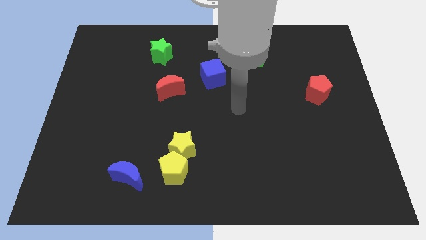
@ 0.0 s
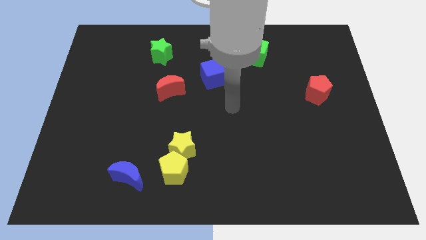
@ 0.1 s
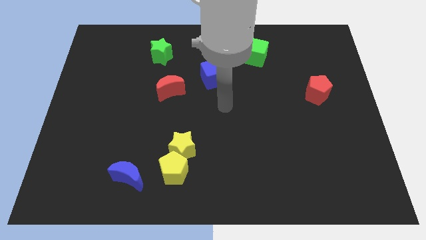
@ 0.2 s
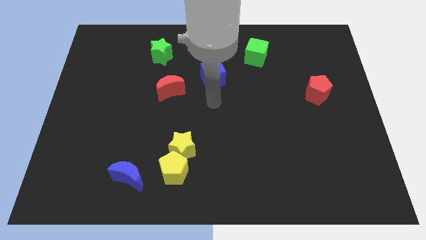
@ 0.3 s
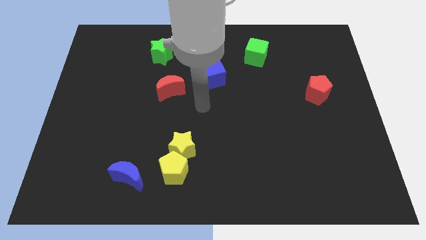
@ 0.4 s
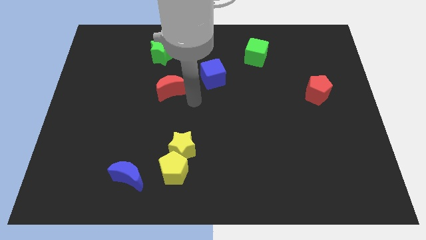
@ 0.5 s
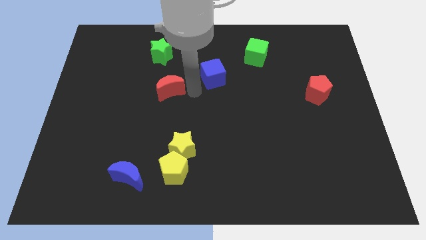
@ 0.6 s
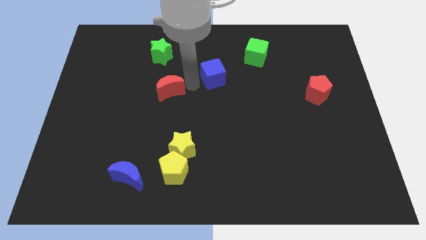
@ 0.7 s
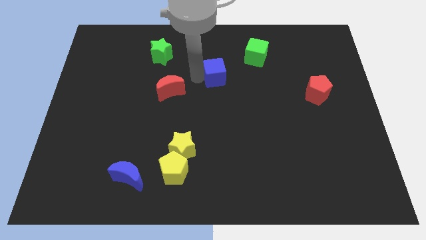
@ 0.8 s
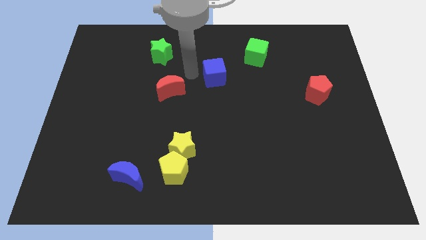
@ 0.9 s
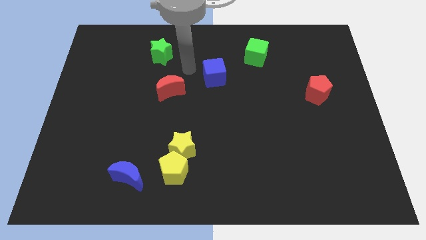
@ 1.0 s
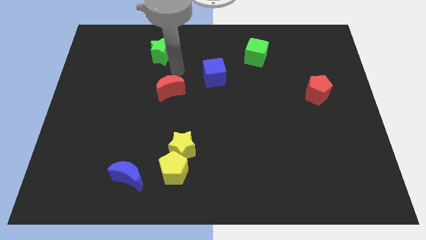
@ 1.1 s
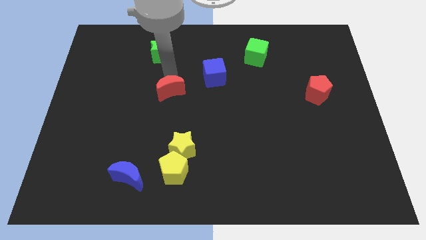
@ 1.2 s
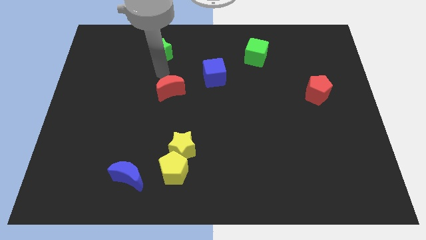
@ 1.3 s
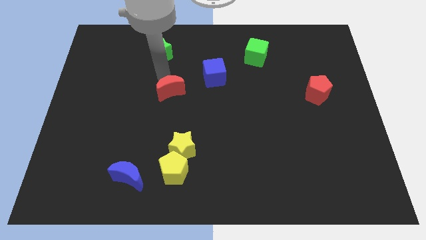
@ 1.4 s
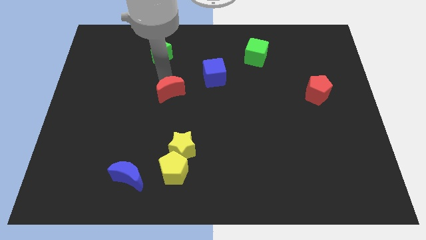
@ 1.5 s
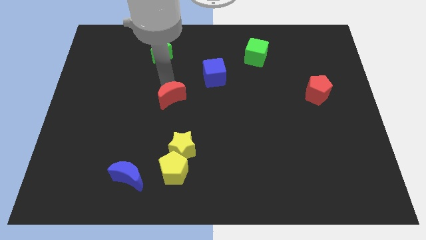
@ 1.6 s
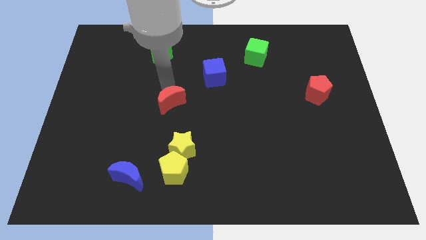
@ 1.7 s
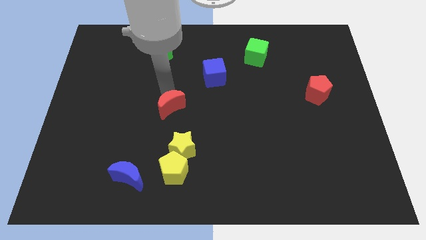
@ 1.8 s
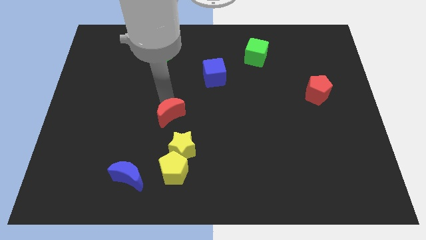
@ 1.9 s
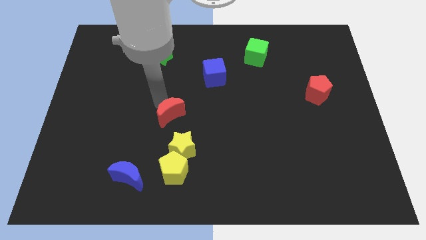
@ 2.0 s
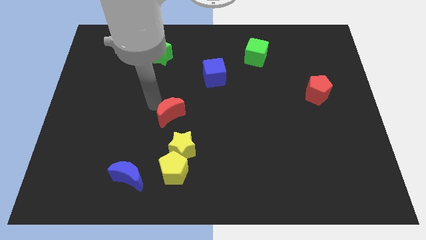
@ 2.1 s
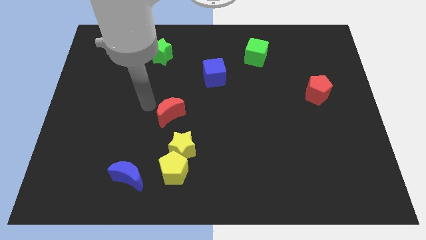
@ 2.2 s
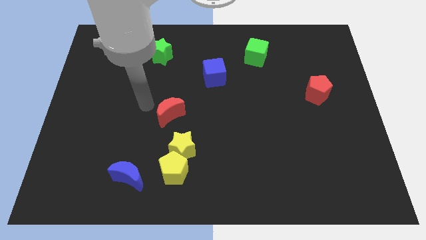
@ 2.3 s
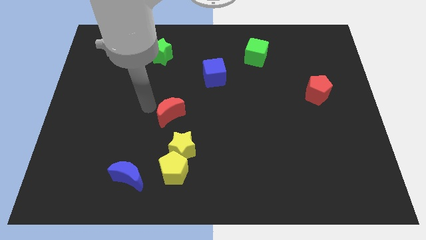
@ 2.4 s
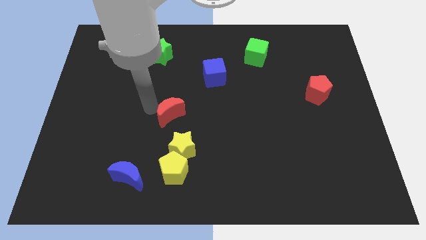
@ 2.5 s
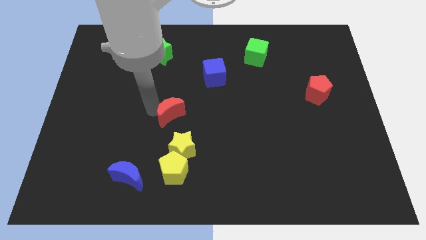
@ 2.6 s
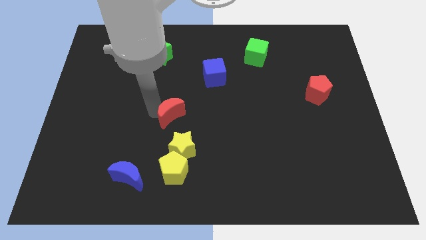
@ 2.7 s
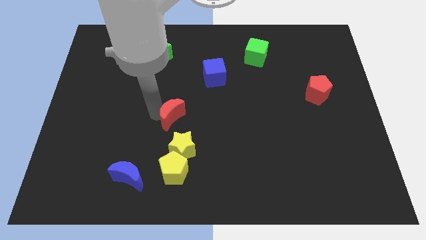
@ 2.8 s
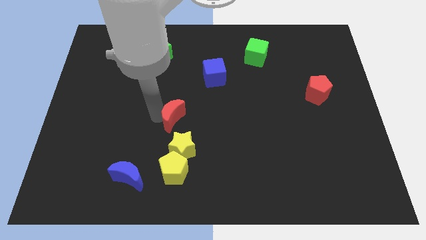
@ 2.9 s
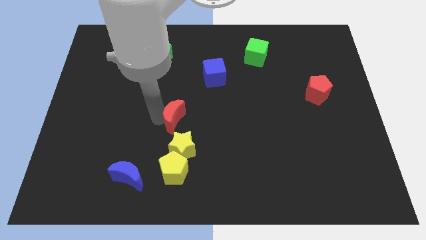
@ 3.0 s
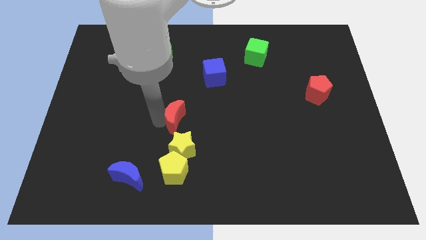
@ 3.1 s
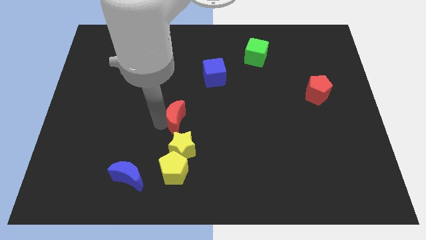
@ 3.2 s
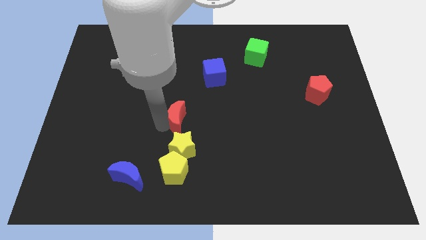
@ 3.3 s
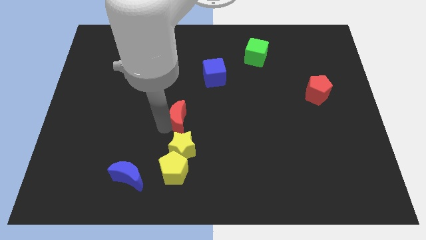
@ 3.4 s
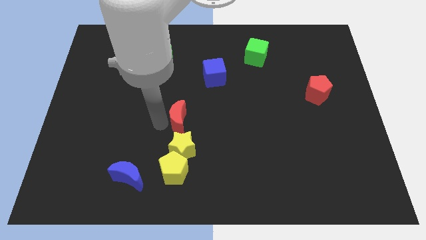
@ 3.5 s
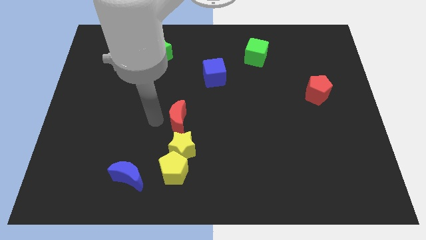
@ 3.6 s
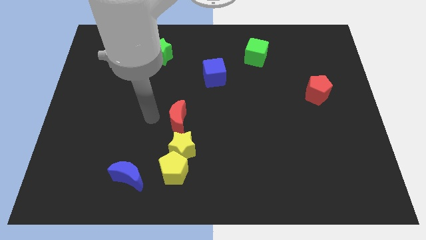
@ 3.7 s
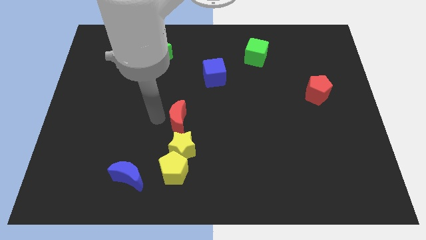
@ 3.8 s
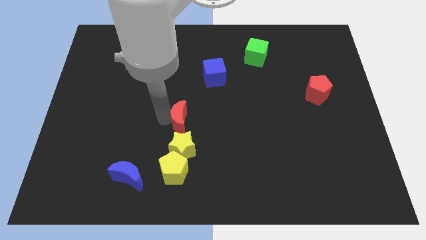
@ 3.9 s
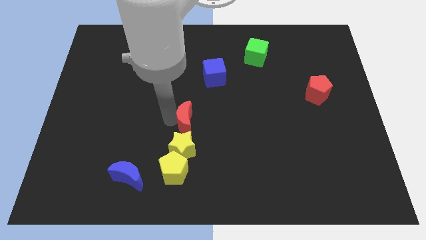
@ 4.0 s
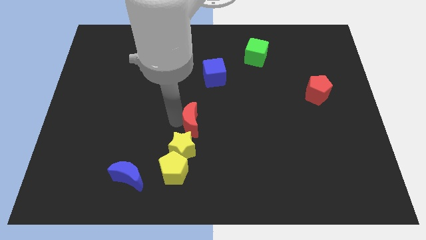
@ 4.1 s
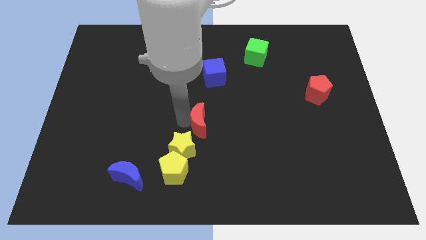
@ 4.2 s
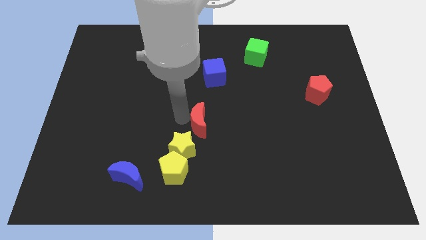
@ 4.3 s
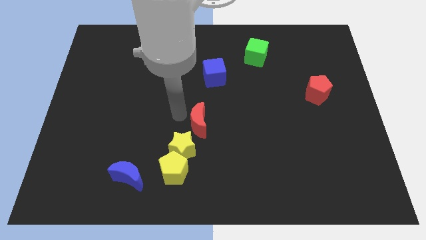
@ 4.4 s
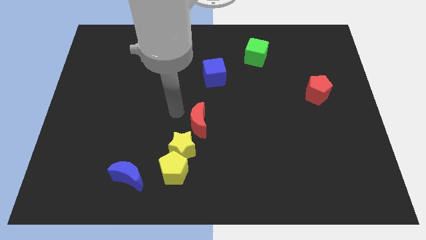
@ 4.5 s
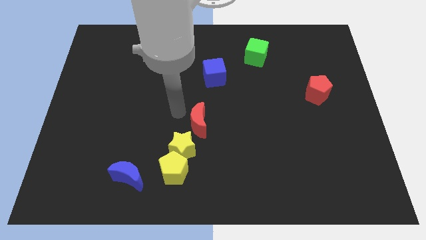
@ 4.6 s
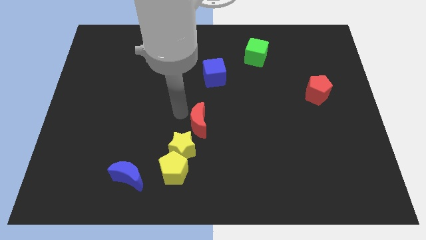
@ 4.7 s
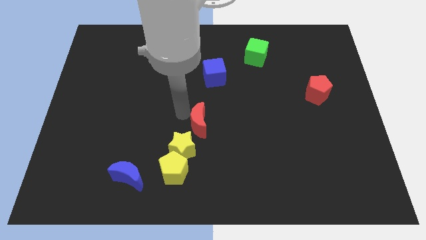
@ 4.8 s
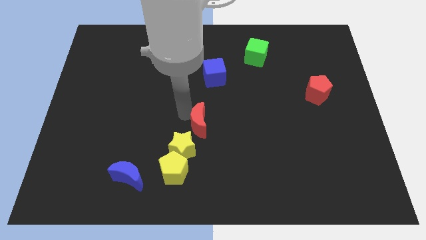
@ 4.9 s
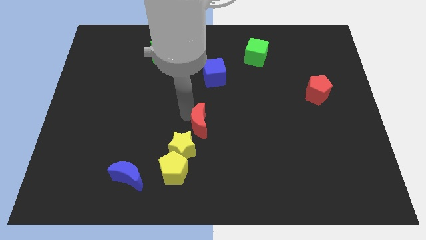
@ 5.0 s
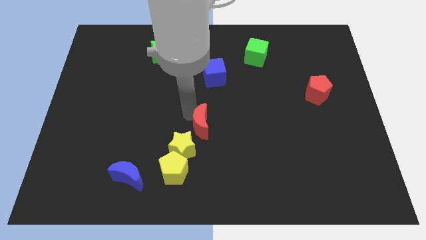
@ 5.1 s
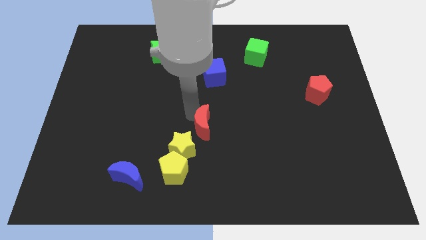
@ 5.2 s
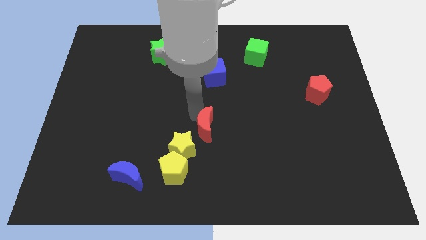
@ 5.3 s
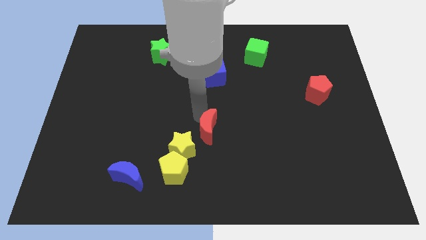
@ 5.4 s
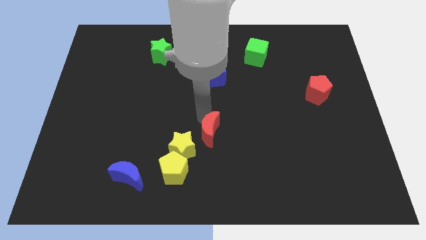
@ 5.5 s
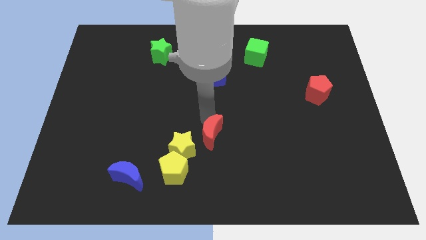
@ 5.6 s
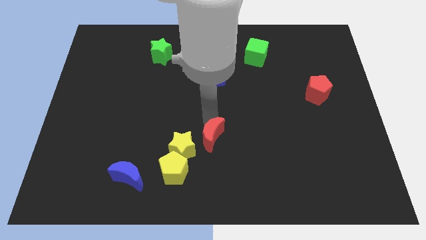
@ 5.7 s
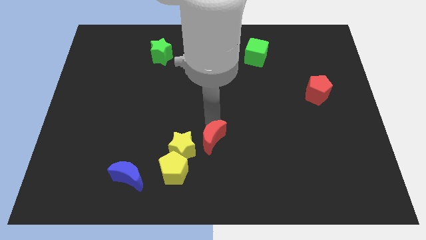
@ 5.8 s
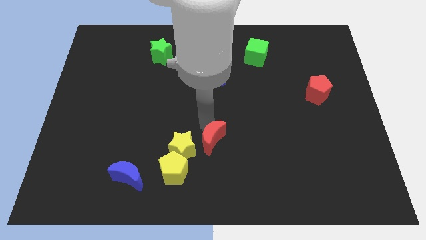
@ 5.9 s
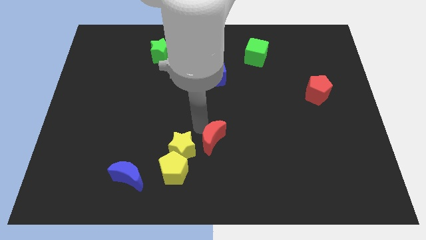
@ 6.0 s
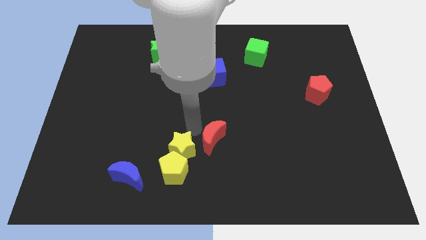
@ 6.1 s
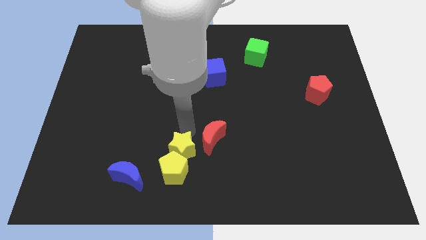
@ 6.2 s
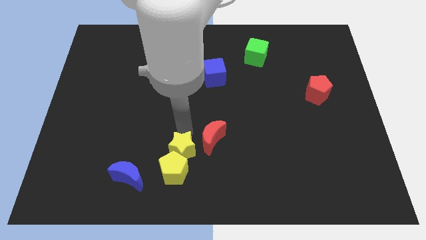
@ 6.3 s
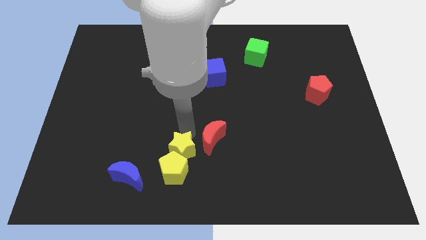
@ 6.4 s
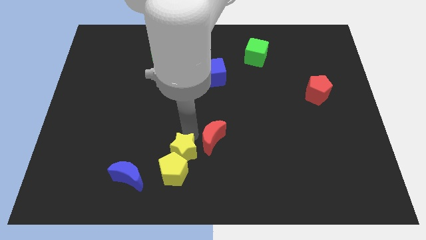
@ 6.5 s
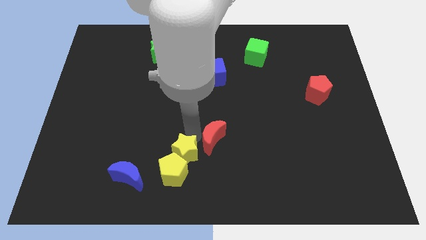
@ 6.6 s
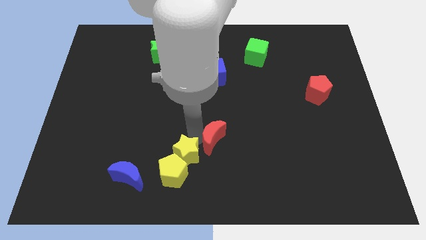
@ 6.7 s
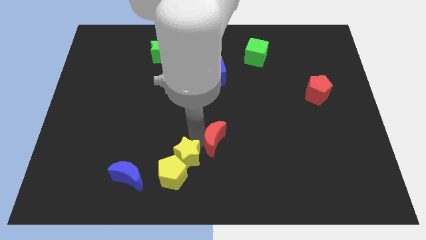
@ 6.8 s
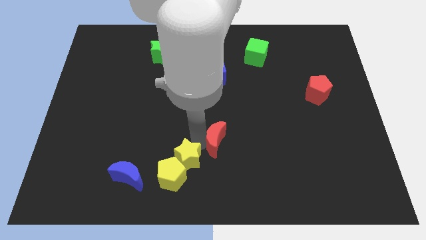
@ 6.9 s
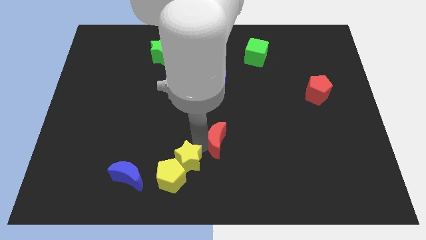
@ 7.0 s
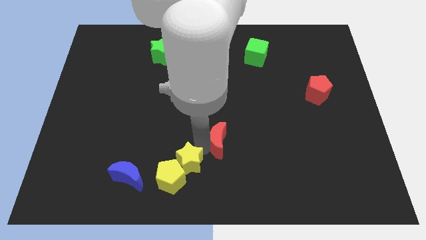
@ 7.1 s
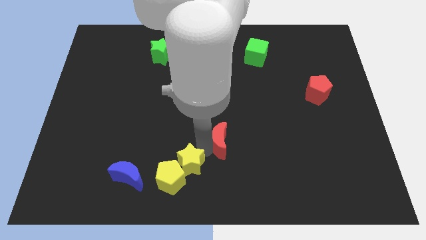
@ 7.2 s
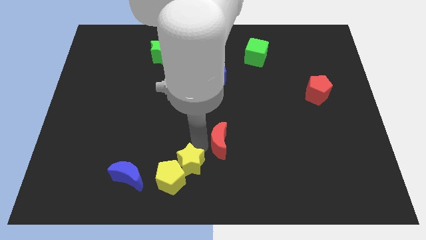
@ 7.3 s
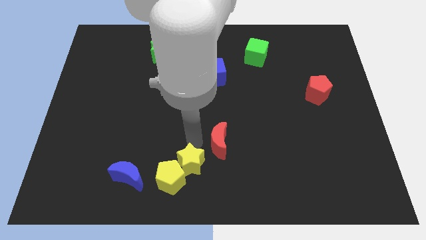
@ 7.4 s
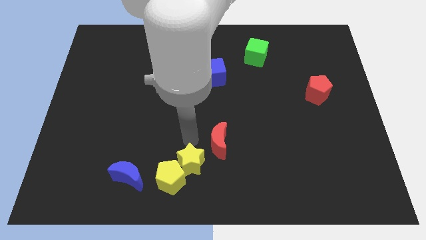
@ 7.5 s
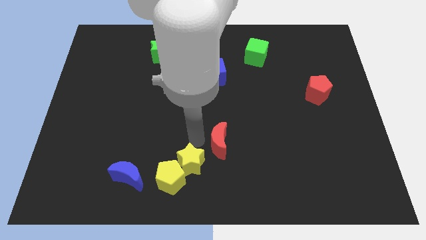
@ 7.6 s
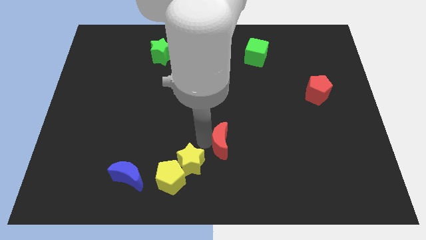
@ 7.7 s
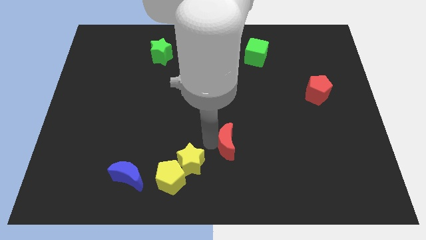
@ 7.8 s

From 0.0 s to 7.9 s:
slide the red moon downwards and then to the right
